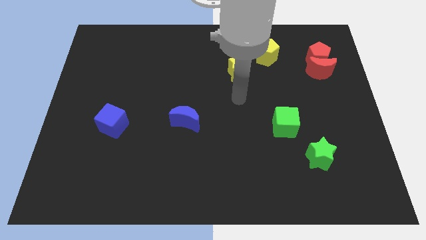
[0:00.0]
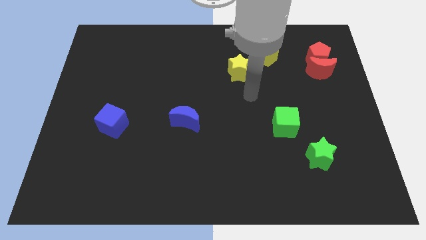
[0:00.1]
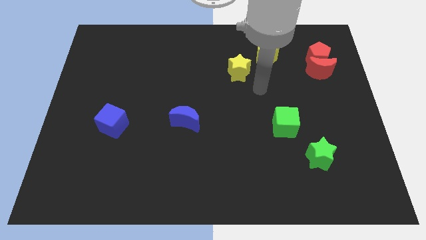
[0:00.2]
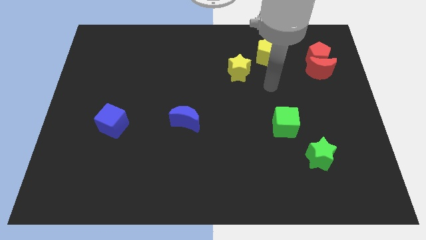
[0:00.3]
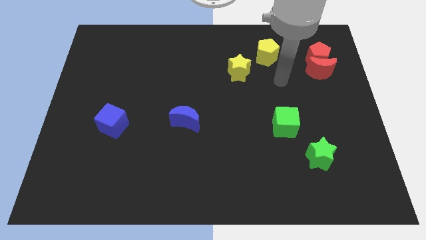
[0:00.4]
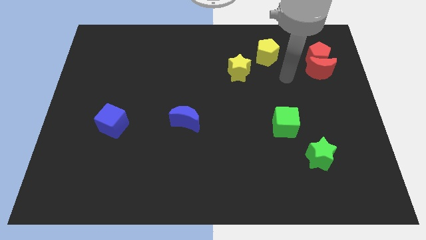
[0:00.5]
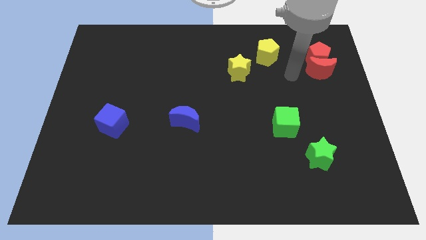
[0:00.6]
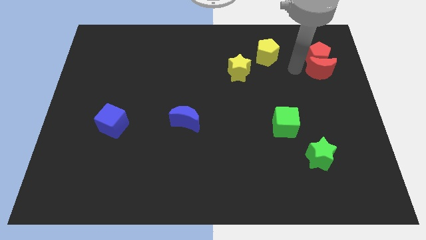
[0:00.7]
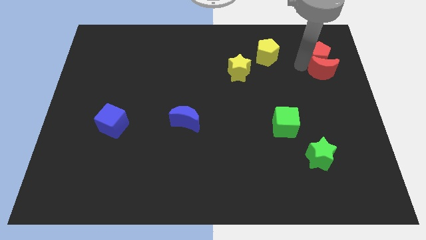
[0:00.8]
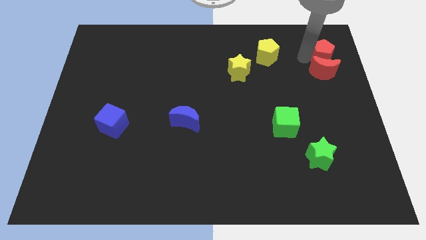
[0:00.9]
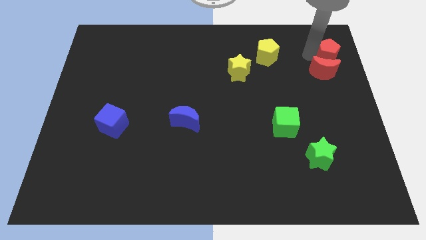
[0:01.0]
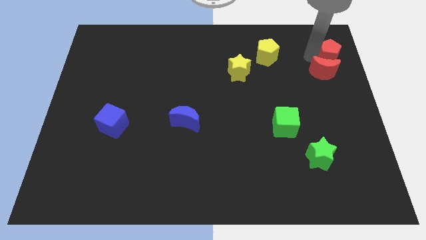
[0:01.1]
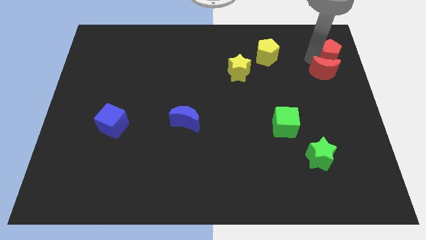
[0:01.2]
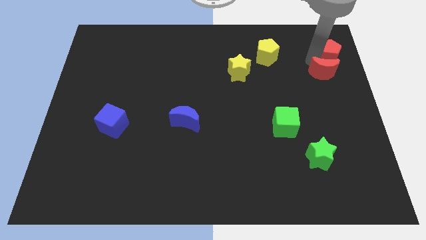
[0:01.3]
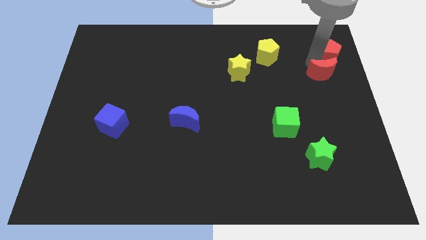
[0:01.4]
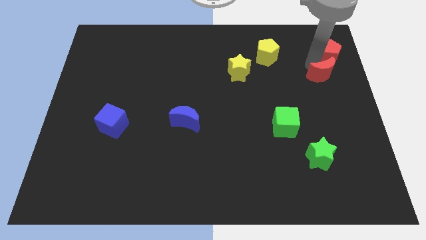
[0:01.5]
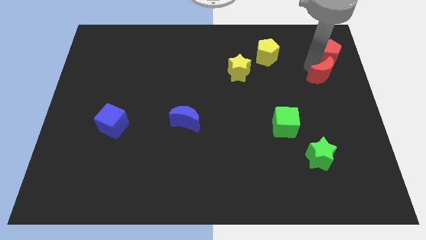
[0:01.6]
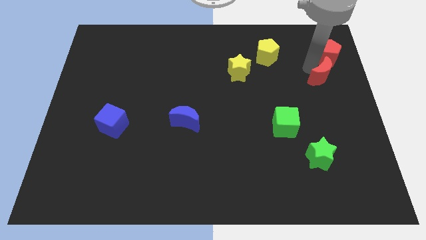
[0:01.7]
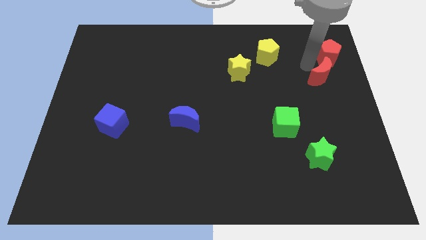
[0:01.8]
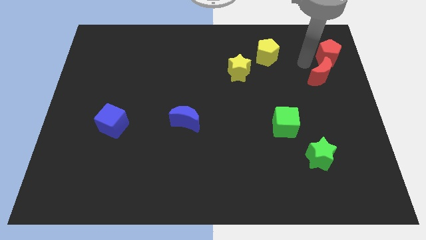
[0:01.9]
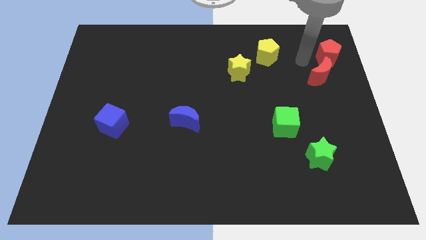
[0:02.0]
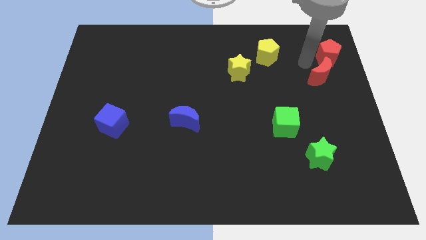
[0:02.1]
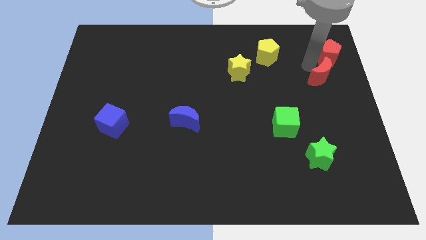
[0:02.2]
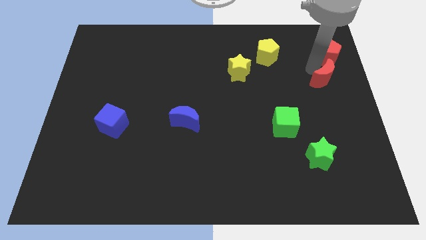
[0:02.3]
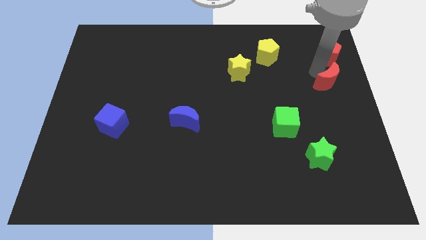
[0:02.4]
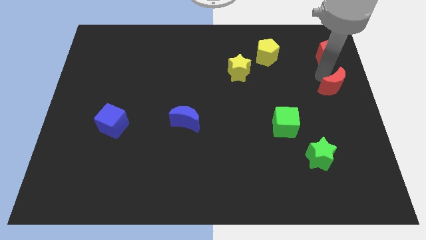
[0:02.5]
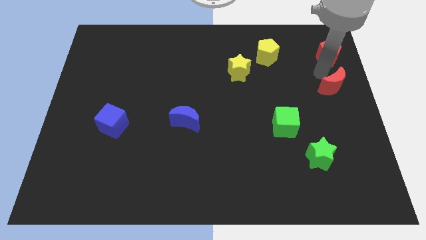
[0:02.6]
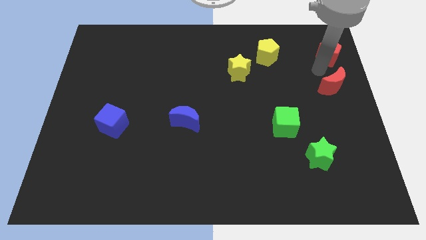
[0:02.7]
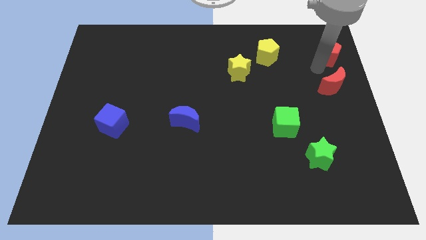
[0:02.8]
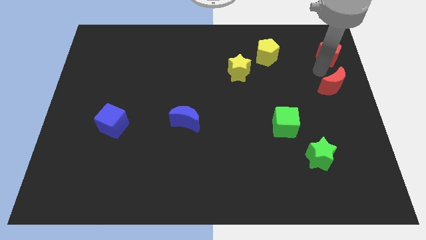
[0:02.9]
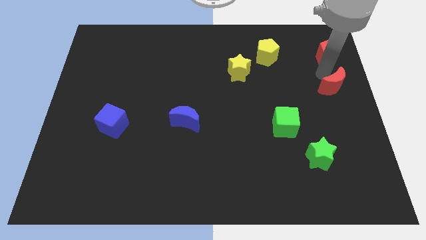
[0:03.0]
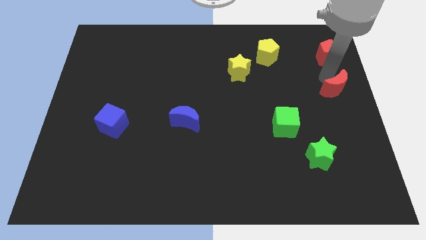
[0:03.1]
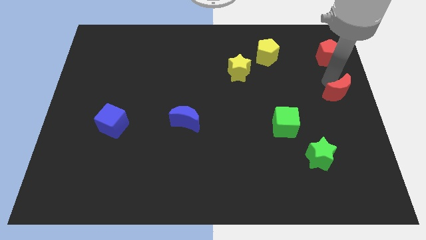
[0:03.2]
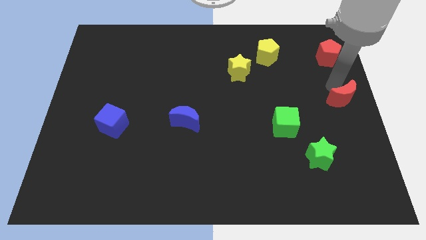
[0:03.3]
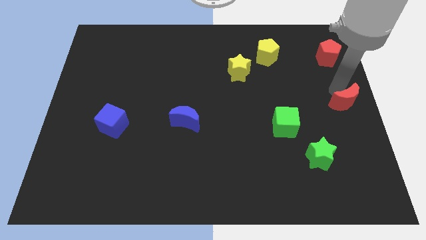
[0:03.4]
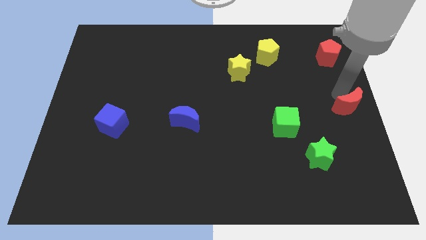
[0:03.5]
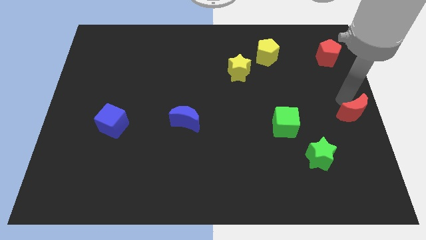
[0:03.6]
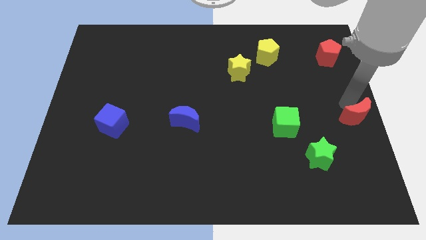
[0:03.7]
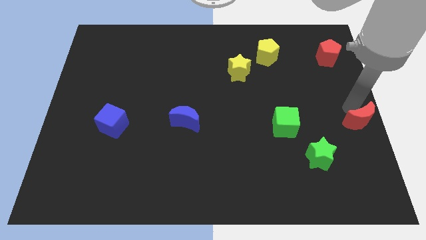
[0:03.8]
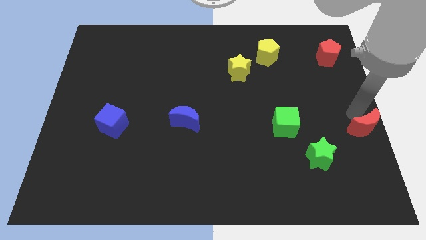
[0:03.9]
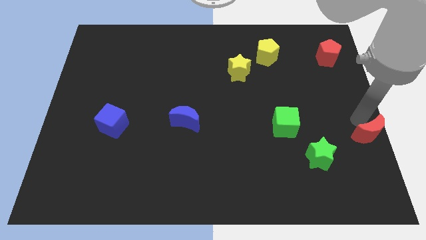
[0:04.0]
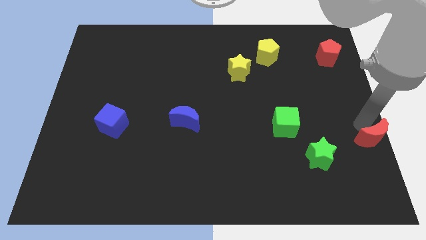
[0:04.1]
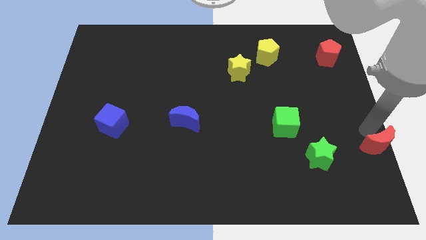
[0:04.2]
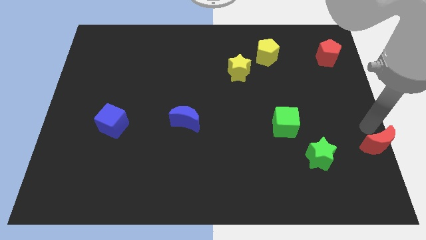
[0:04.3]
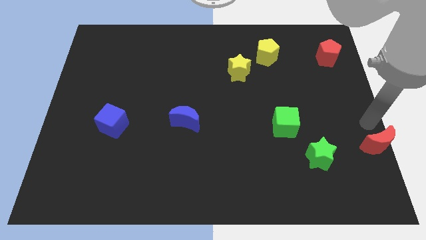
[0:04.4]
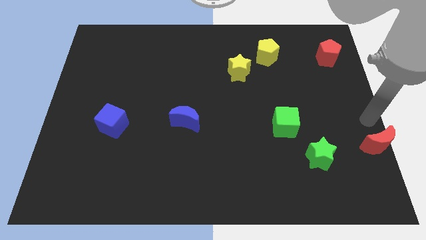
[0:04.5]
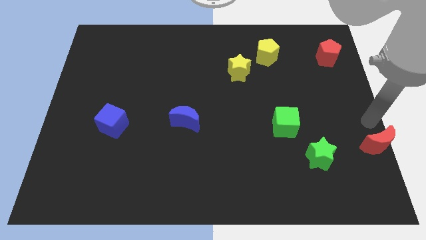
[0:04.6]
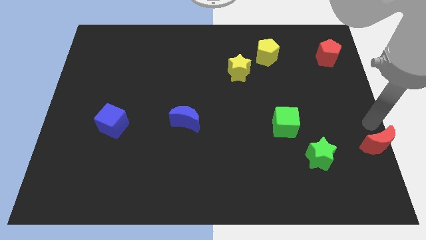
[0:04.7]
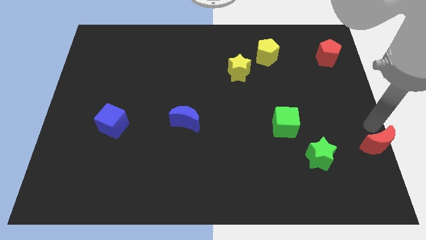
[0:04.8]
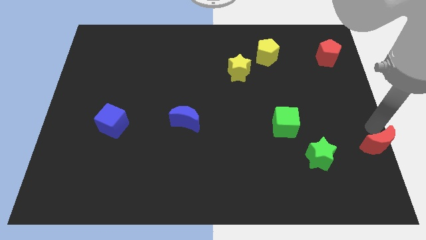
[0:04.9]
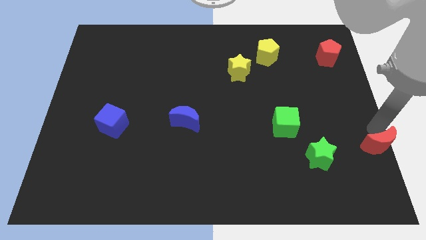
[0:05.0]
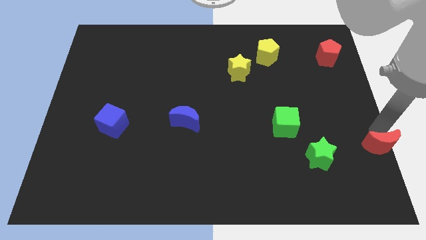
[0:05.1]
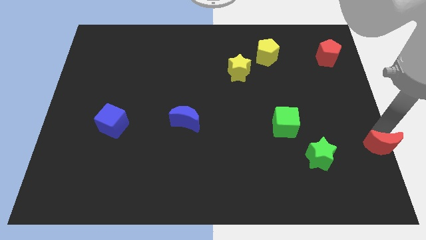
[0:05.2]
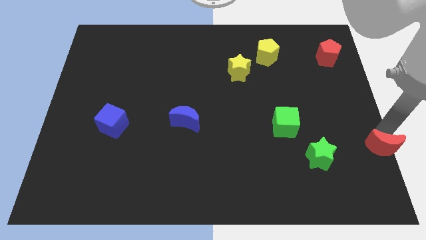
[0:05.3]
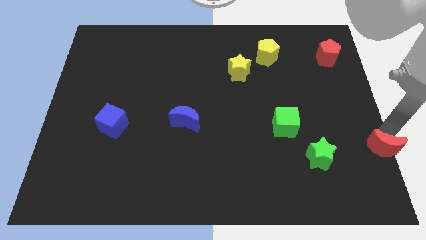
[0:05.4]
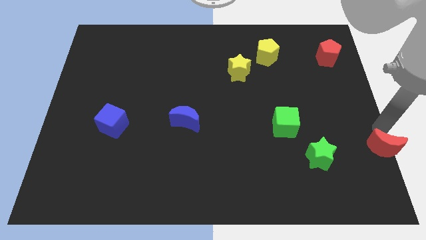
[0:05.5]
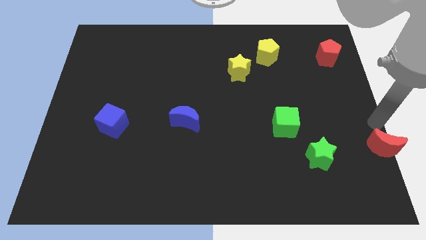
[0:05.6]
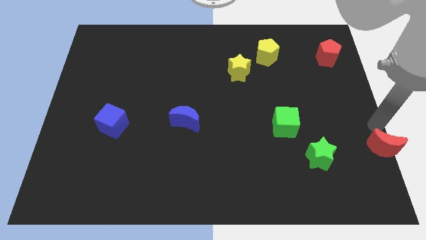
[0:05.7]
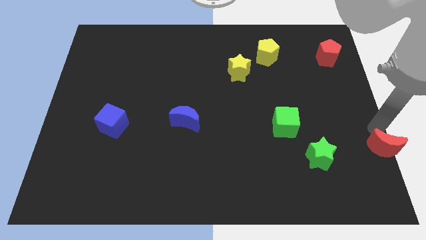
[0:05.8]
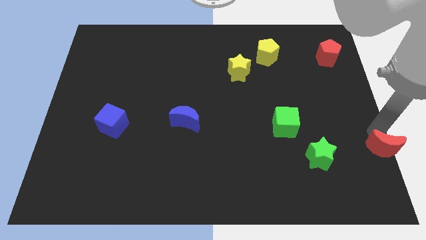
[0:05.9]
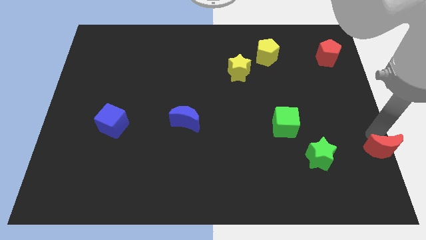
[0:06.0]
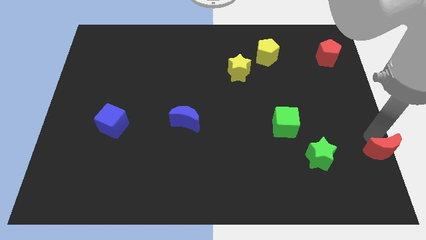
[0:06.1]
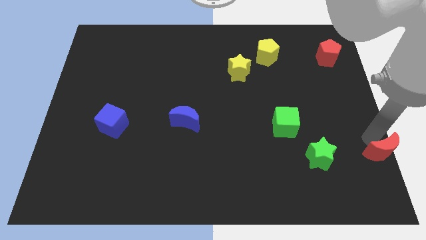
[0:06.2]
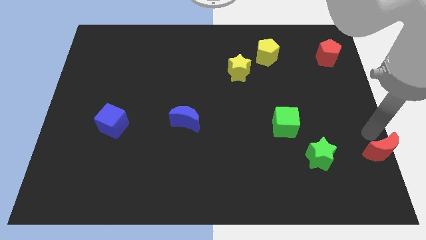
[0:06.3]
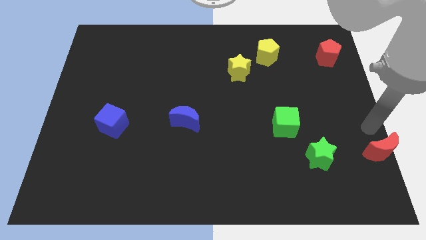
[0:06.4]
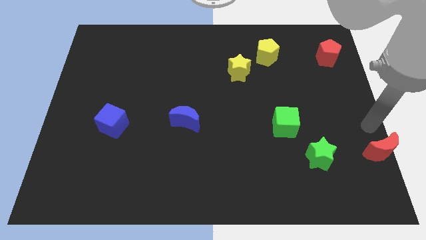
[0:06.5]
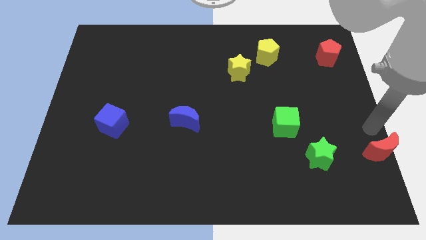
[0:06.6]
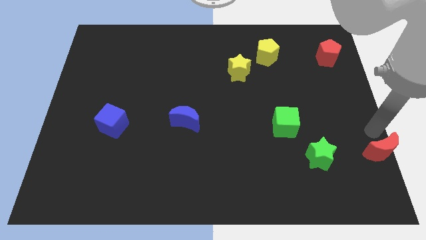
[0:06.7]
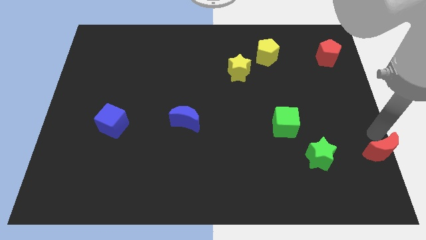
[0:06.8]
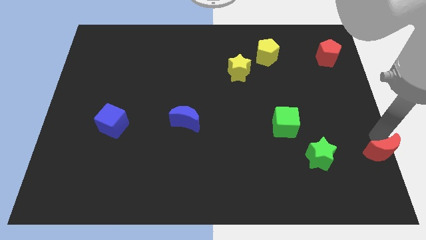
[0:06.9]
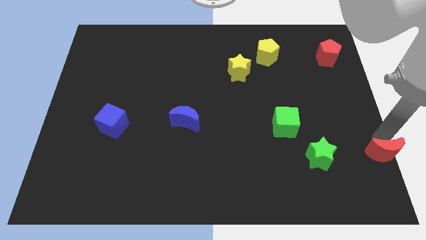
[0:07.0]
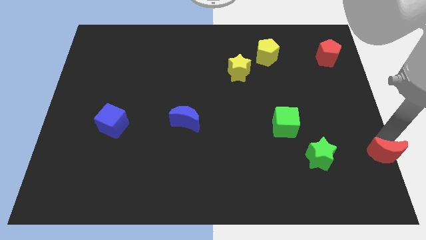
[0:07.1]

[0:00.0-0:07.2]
push the red moon to the bottom right corner

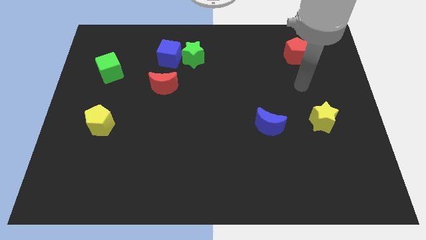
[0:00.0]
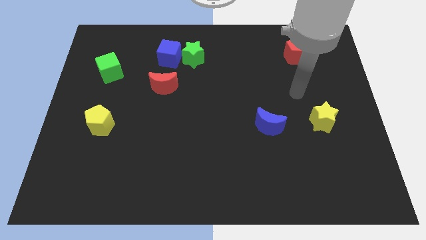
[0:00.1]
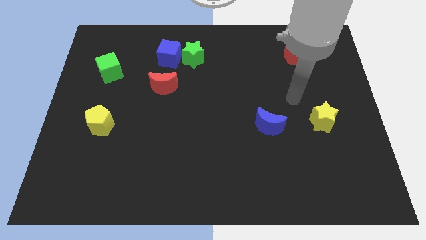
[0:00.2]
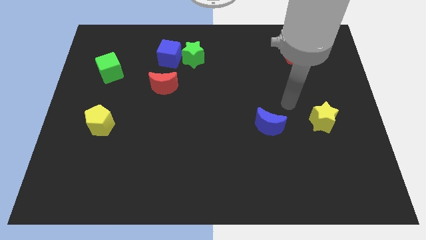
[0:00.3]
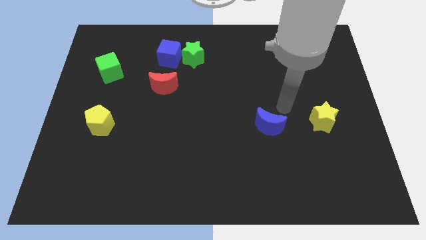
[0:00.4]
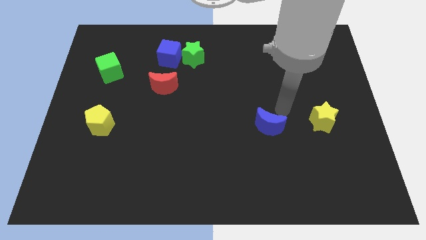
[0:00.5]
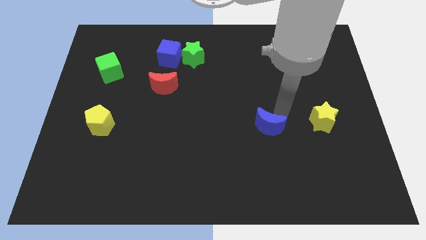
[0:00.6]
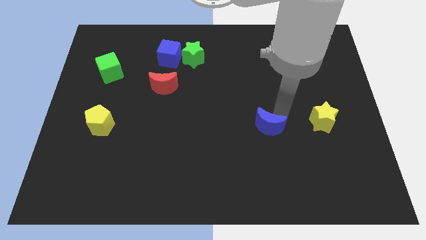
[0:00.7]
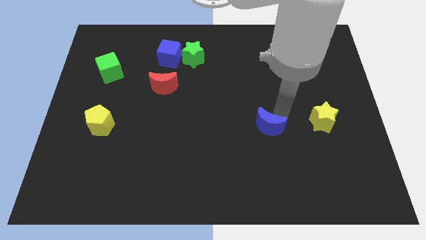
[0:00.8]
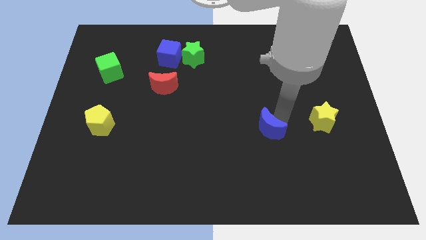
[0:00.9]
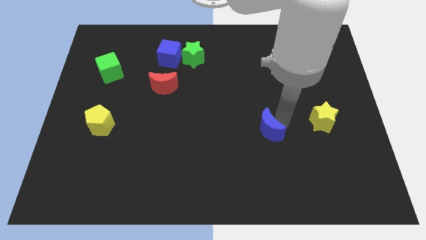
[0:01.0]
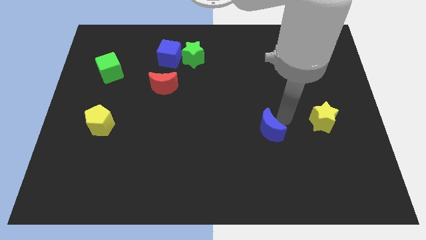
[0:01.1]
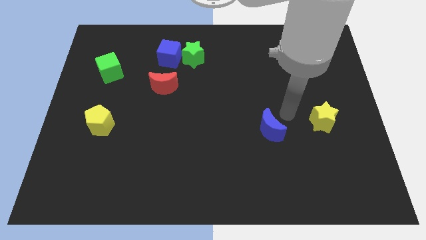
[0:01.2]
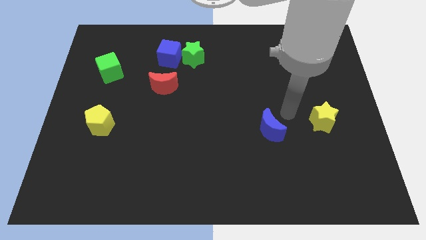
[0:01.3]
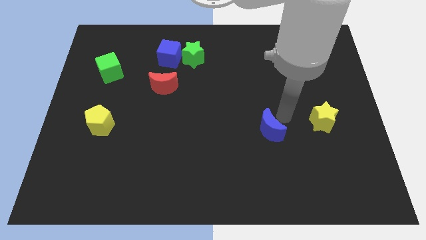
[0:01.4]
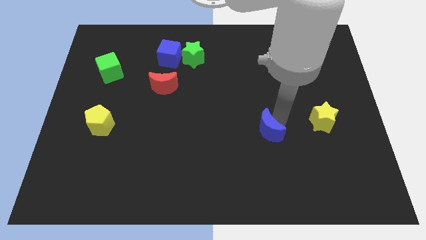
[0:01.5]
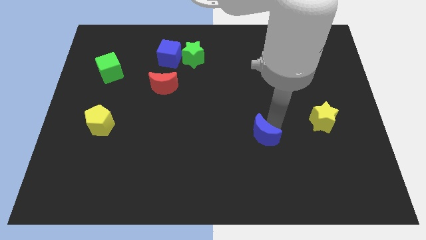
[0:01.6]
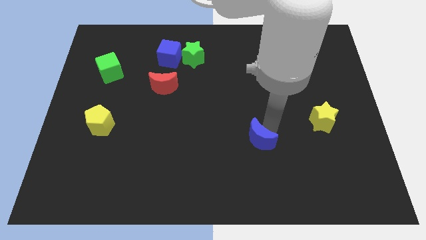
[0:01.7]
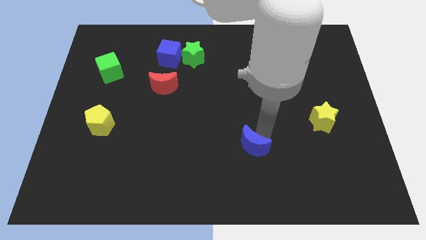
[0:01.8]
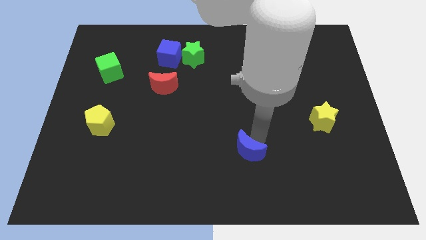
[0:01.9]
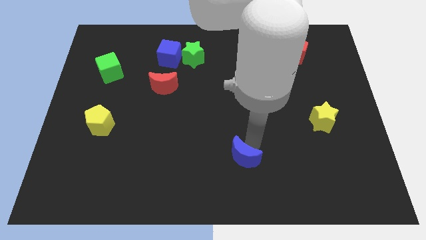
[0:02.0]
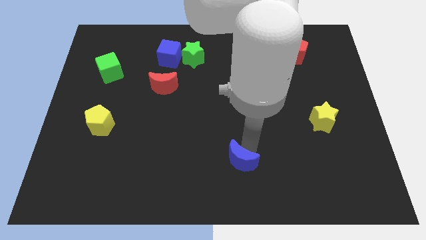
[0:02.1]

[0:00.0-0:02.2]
slide the blue moon to the bottom side
